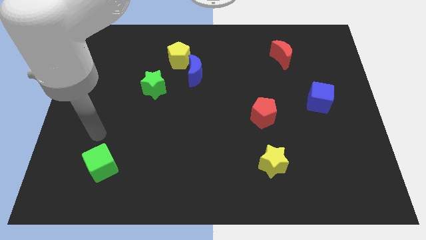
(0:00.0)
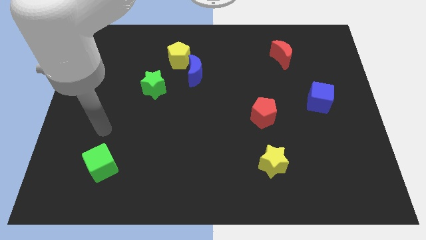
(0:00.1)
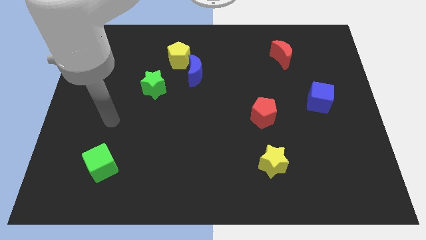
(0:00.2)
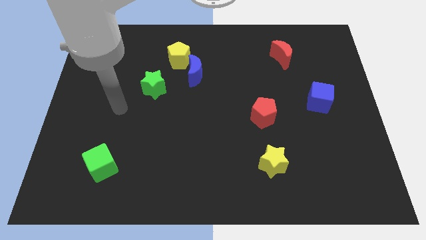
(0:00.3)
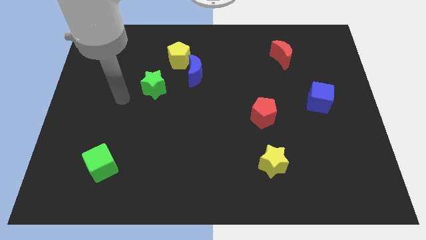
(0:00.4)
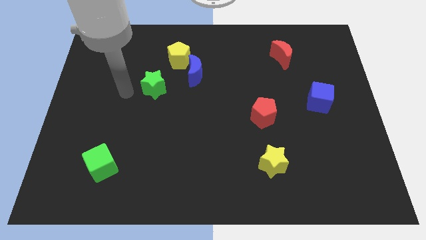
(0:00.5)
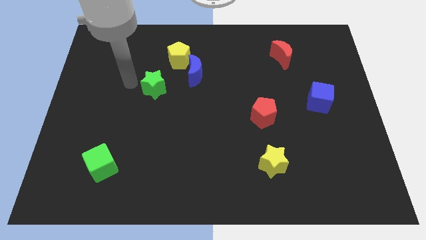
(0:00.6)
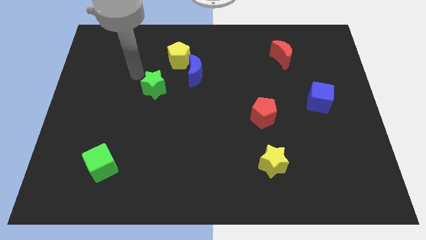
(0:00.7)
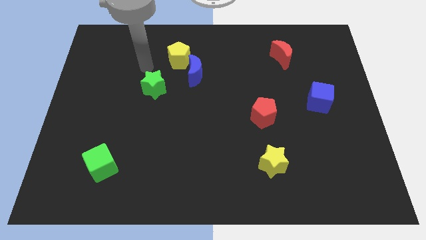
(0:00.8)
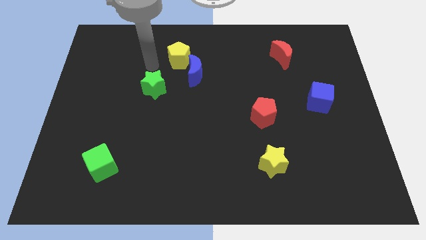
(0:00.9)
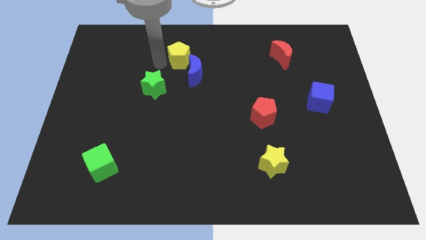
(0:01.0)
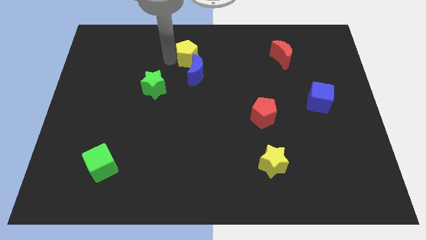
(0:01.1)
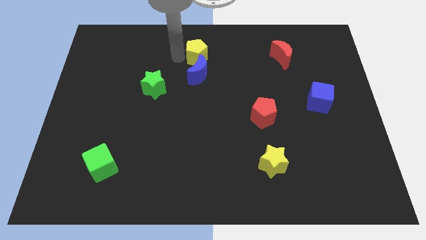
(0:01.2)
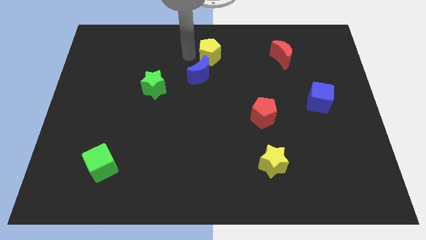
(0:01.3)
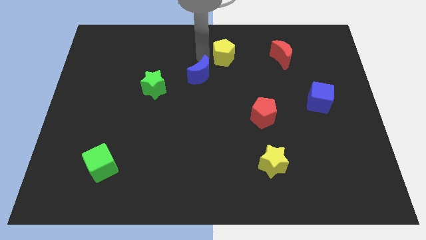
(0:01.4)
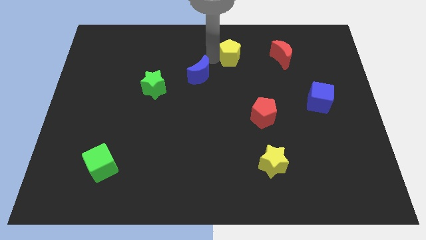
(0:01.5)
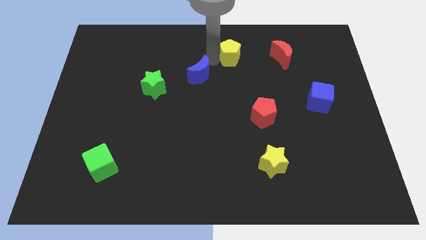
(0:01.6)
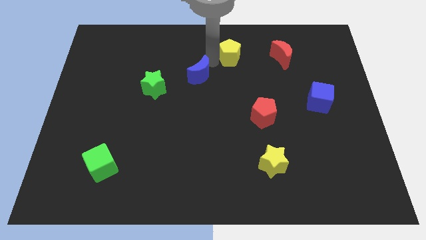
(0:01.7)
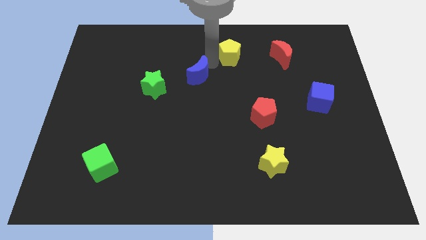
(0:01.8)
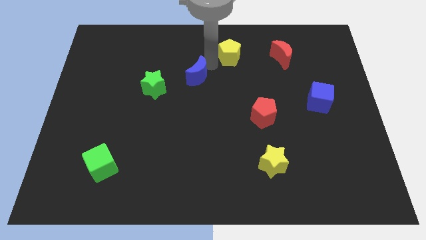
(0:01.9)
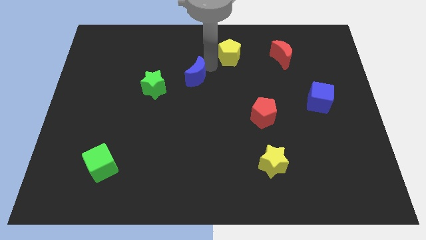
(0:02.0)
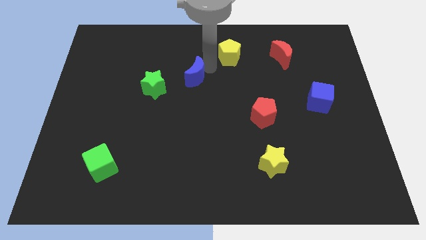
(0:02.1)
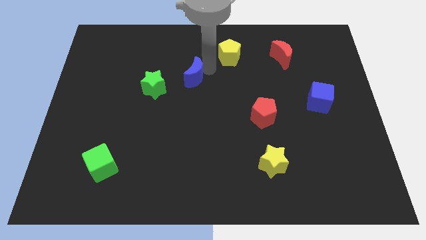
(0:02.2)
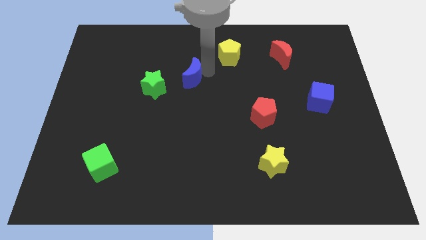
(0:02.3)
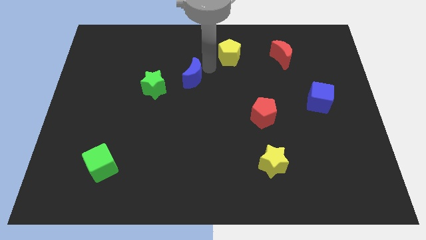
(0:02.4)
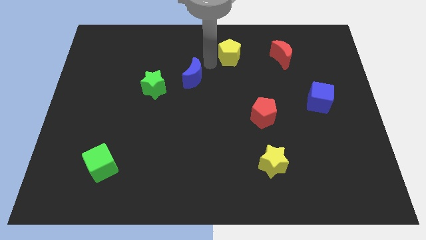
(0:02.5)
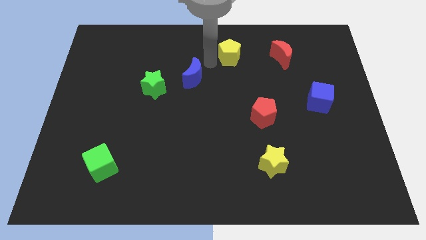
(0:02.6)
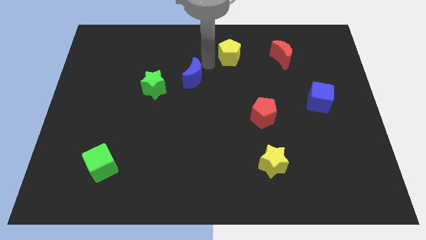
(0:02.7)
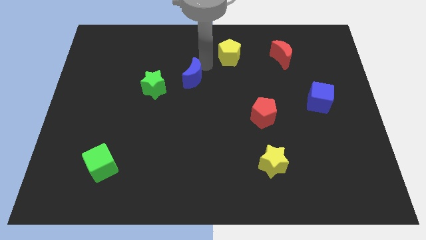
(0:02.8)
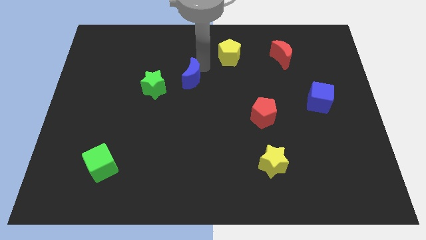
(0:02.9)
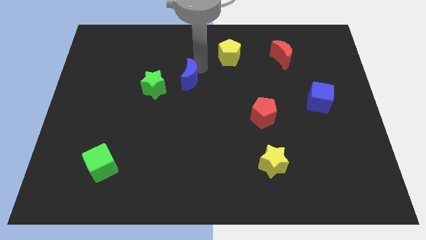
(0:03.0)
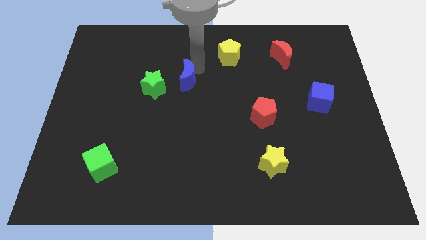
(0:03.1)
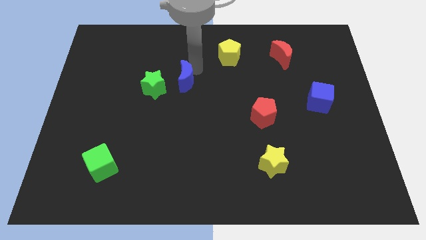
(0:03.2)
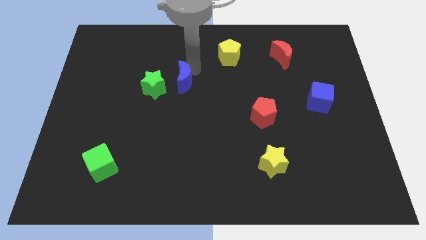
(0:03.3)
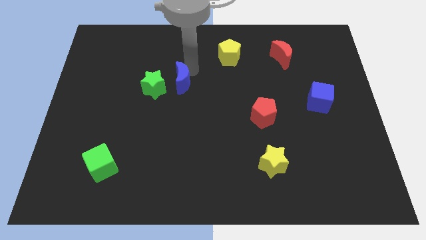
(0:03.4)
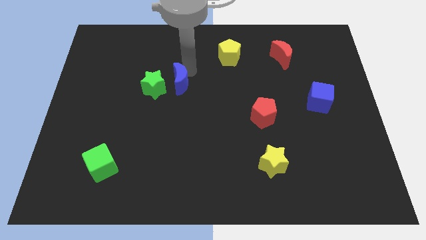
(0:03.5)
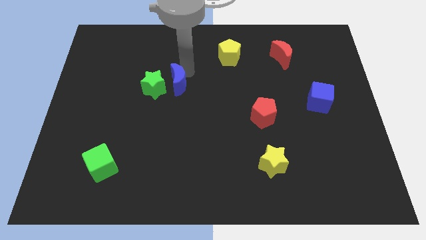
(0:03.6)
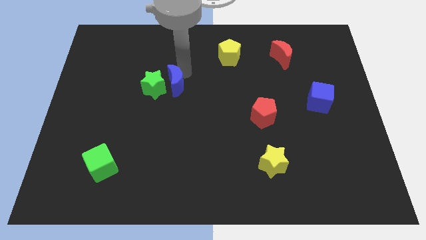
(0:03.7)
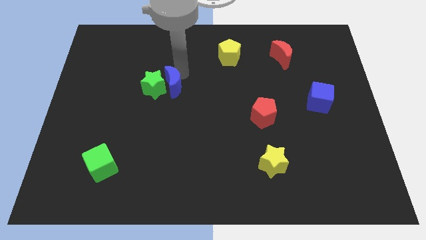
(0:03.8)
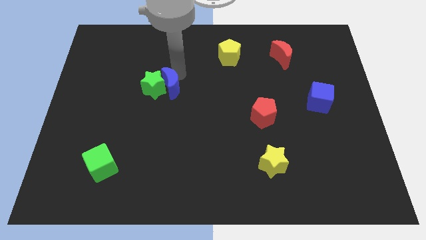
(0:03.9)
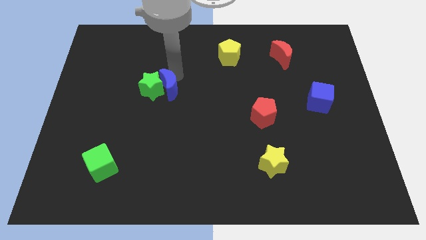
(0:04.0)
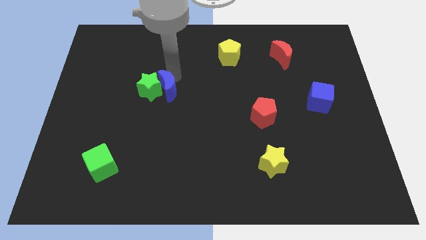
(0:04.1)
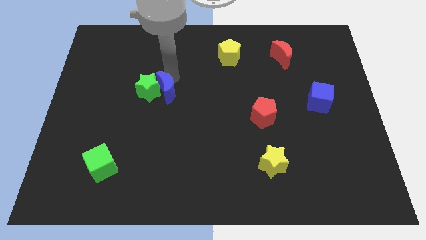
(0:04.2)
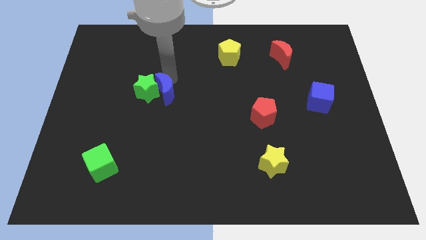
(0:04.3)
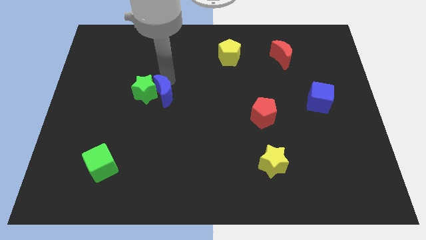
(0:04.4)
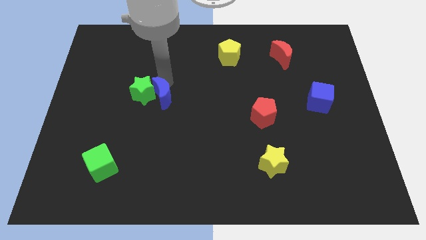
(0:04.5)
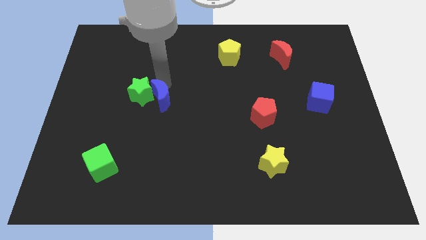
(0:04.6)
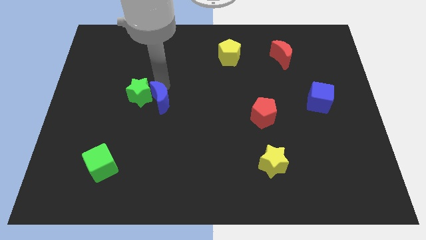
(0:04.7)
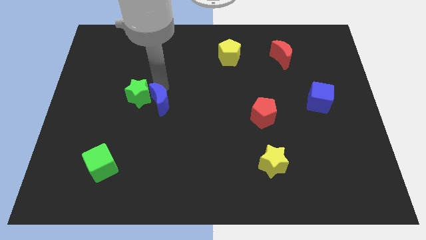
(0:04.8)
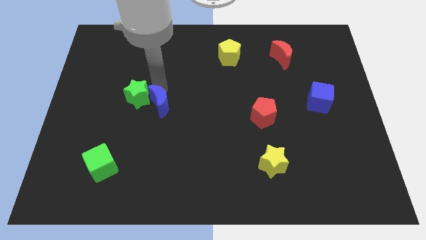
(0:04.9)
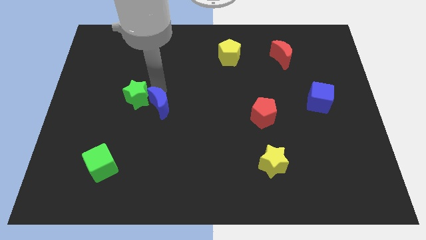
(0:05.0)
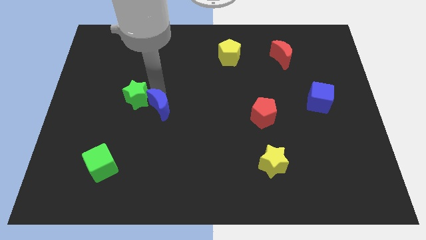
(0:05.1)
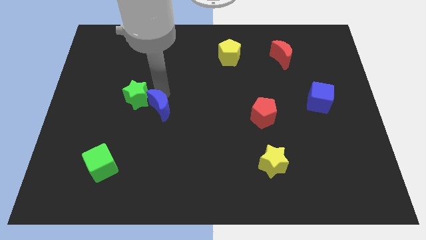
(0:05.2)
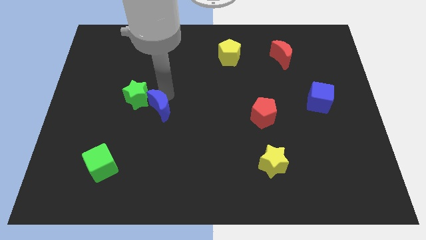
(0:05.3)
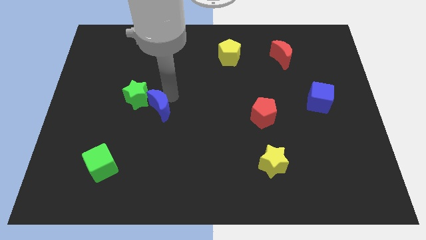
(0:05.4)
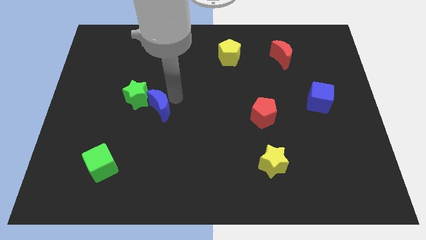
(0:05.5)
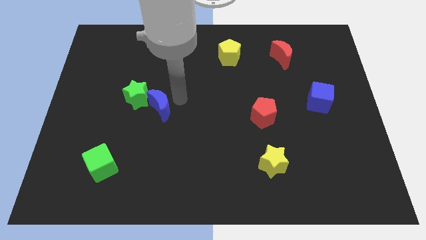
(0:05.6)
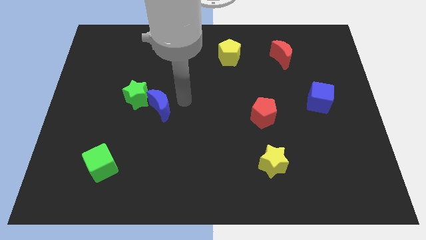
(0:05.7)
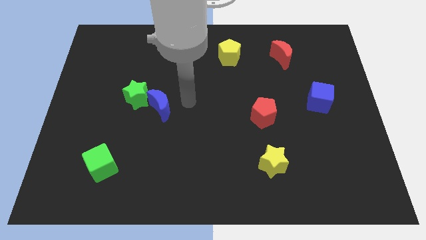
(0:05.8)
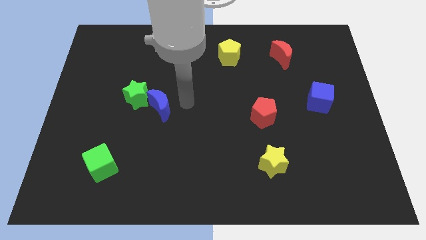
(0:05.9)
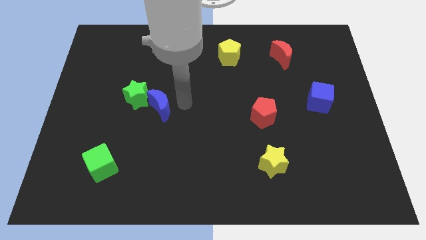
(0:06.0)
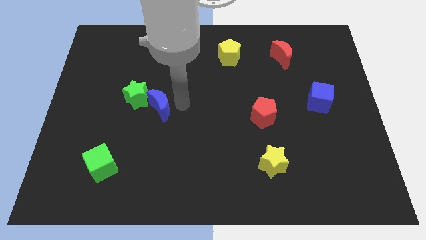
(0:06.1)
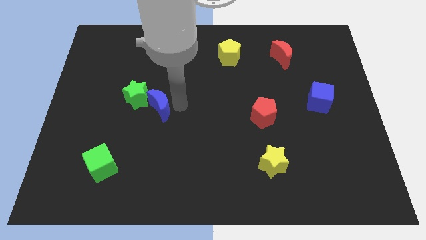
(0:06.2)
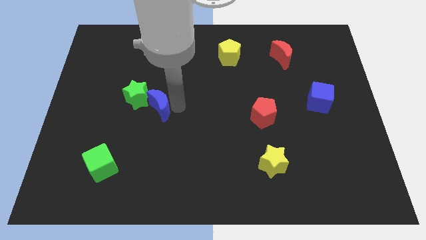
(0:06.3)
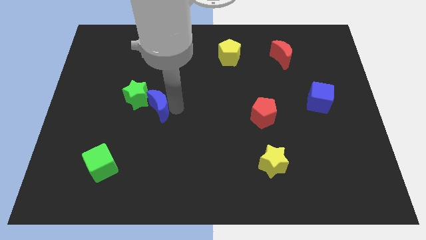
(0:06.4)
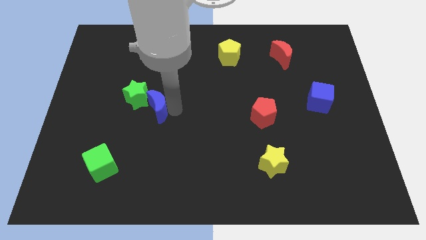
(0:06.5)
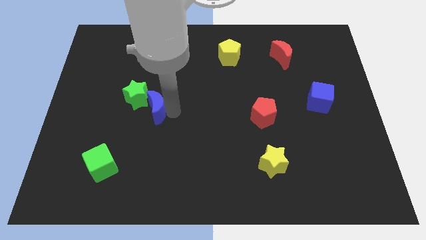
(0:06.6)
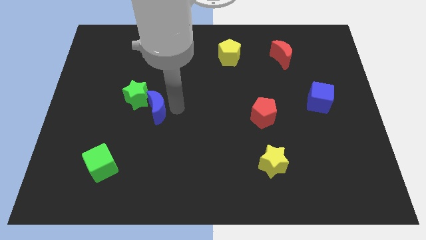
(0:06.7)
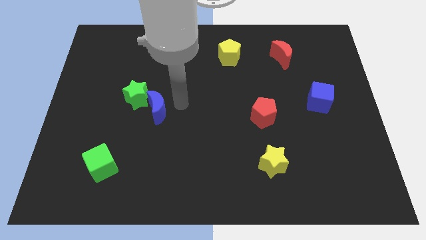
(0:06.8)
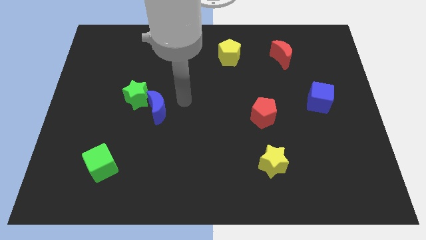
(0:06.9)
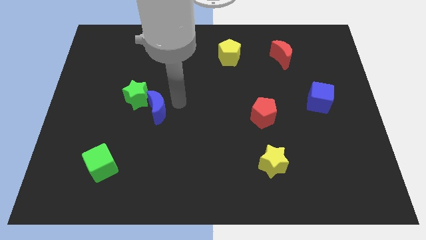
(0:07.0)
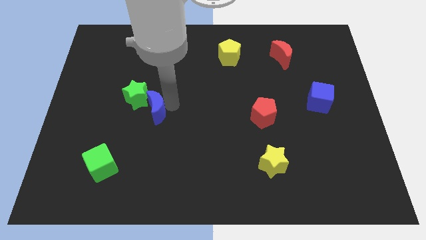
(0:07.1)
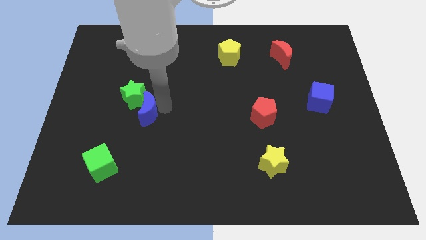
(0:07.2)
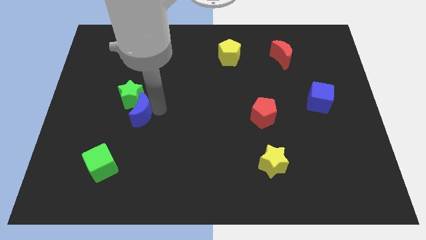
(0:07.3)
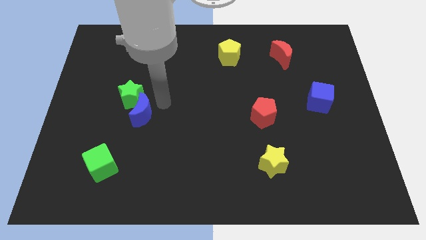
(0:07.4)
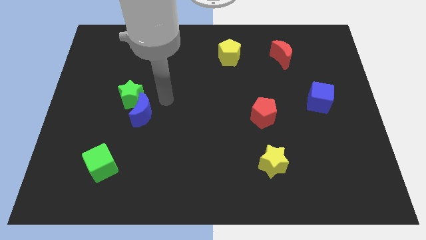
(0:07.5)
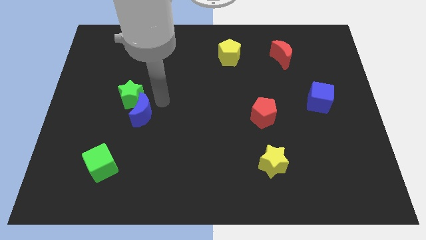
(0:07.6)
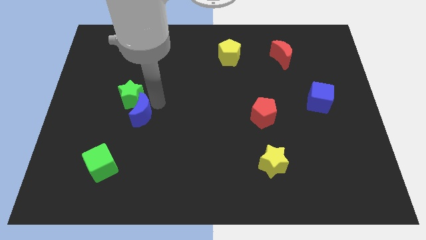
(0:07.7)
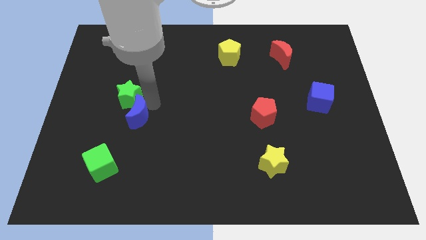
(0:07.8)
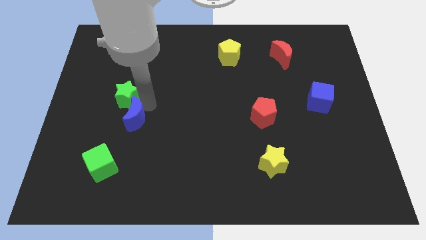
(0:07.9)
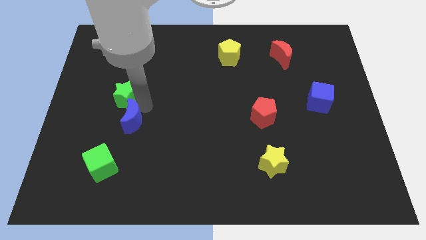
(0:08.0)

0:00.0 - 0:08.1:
move the blue moon downwards and left

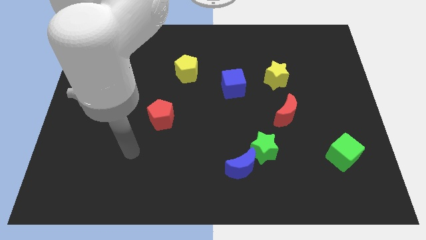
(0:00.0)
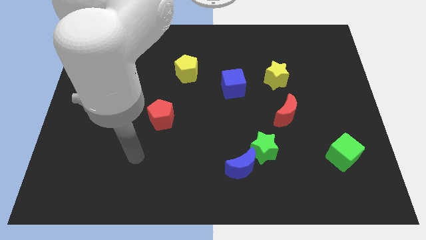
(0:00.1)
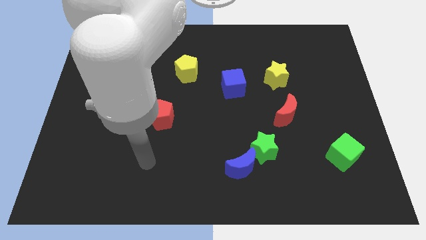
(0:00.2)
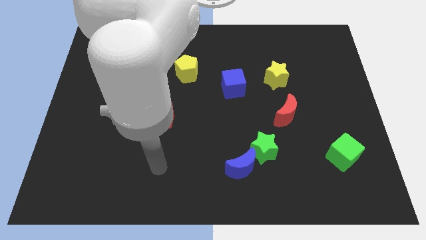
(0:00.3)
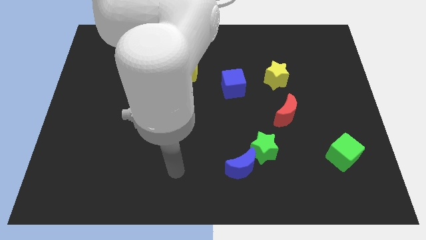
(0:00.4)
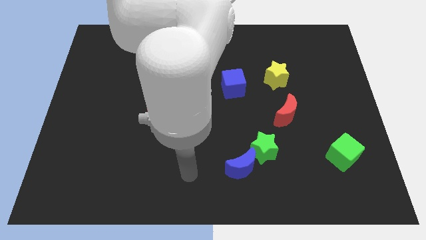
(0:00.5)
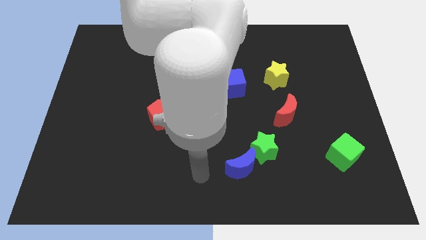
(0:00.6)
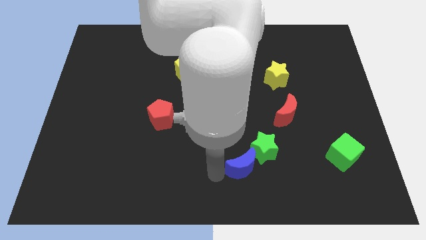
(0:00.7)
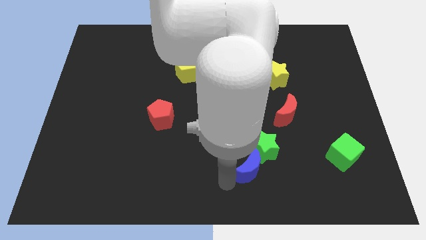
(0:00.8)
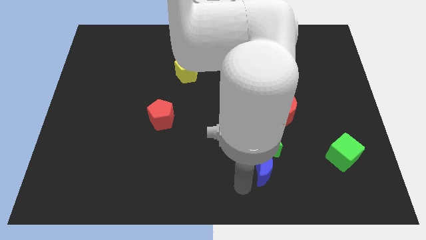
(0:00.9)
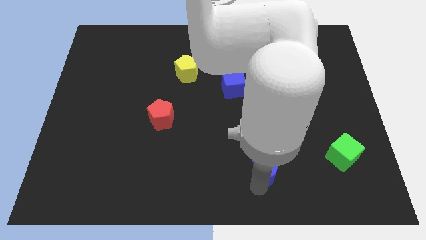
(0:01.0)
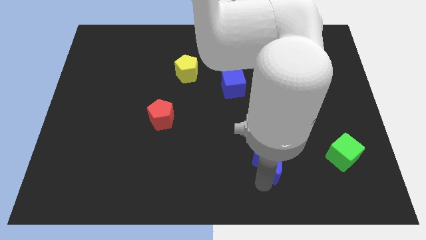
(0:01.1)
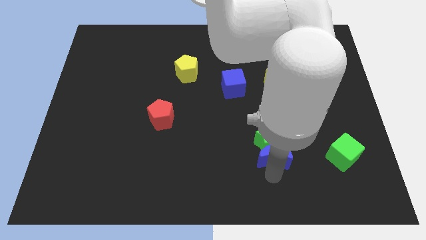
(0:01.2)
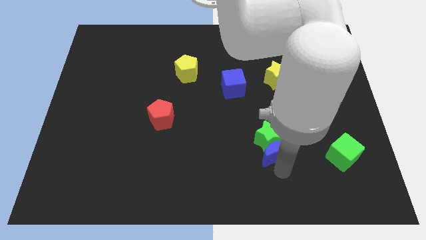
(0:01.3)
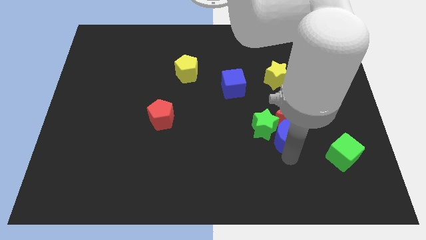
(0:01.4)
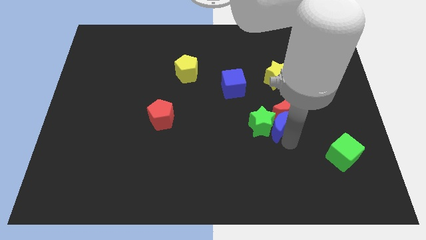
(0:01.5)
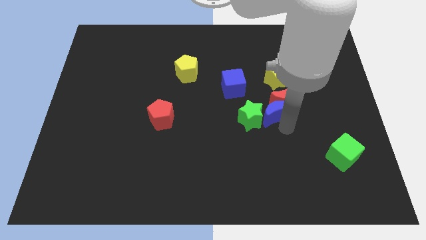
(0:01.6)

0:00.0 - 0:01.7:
slide the green star somewhat up and to the left
